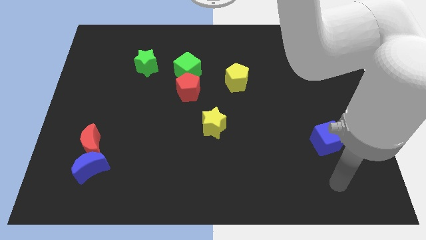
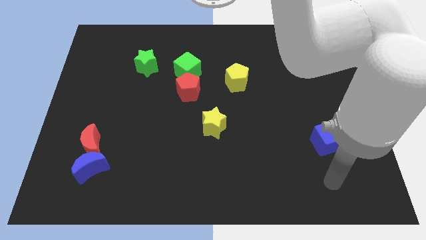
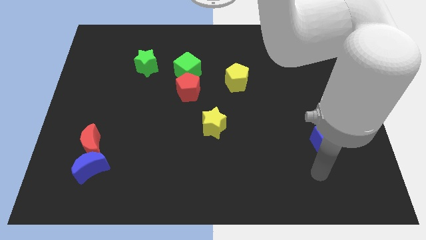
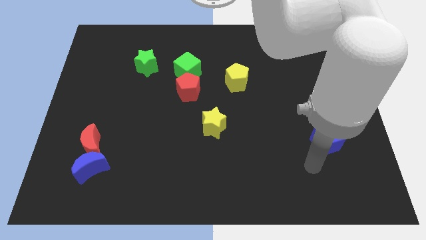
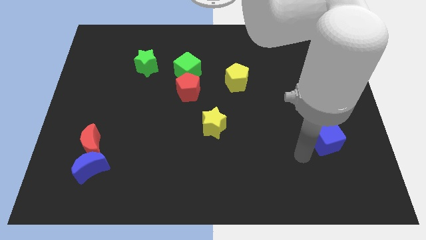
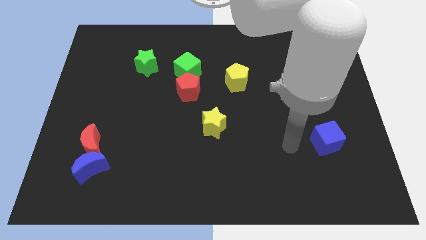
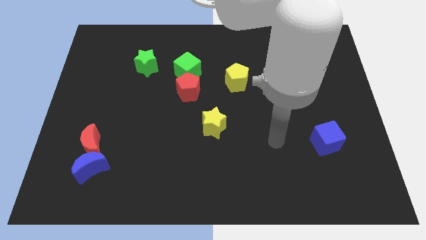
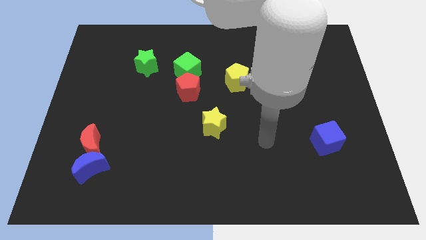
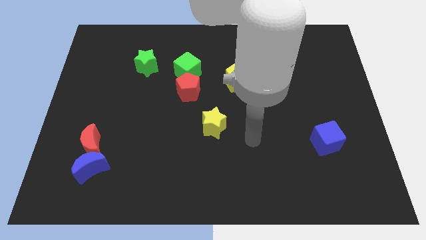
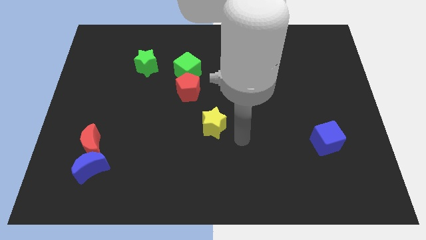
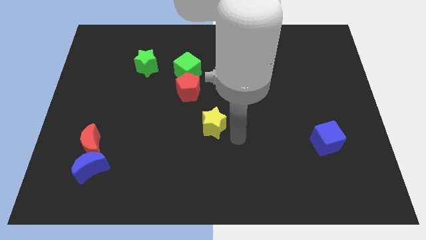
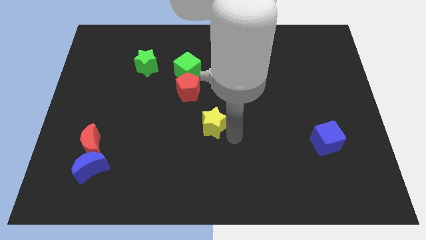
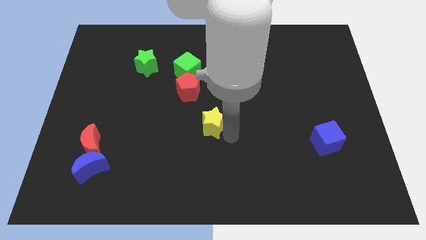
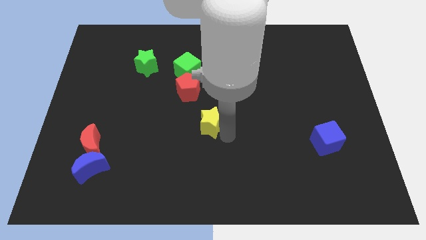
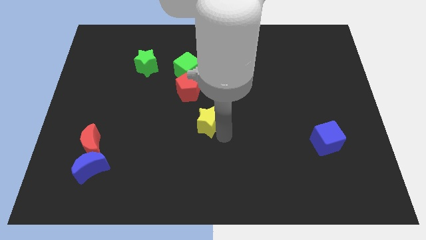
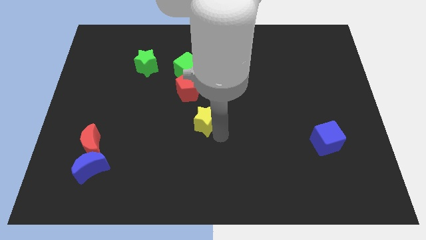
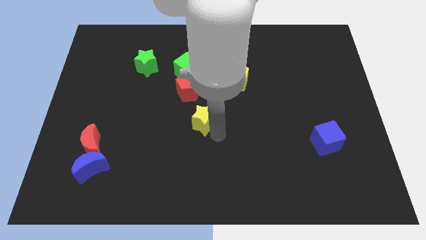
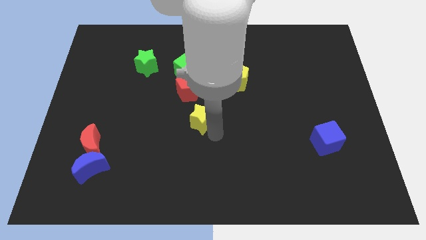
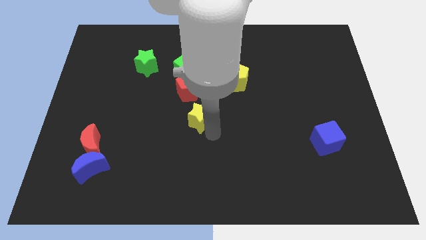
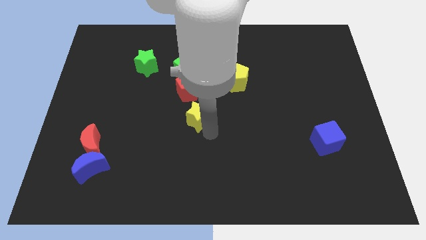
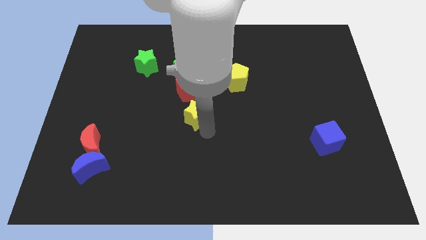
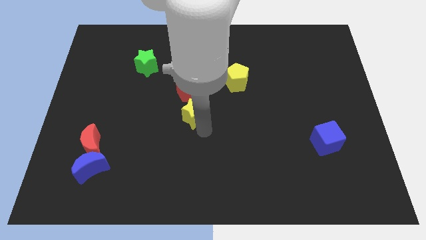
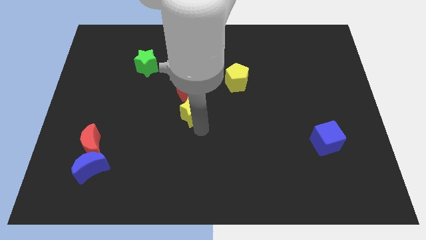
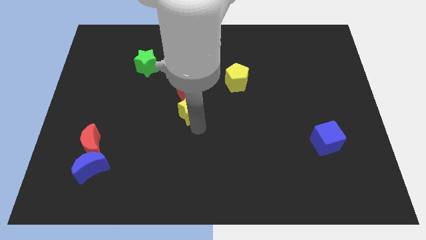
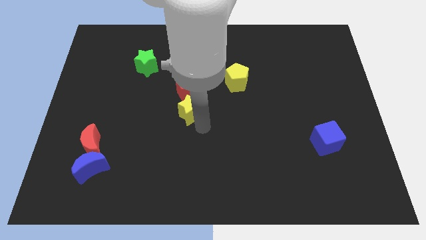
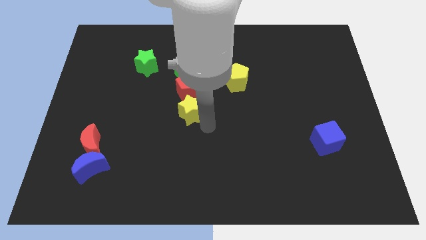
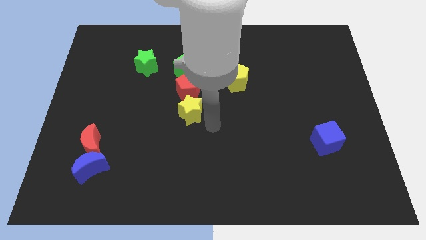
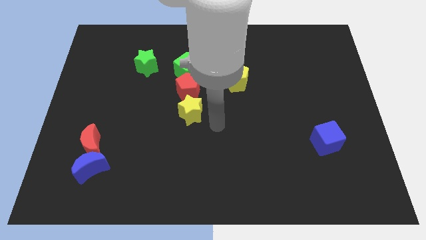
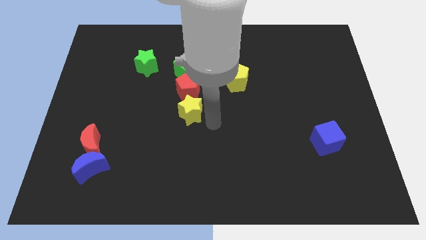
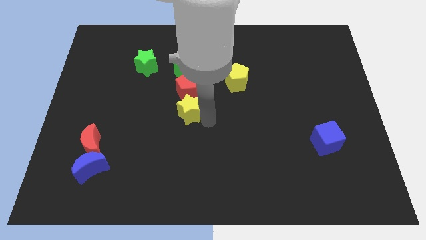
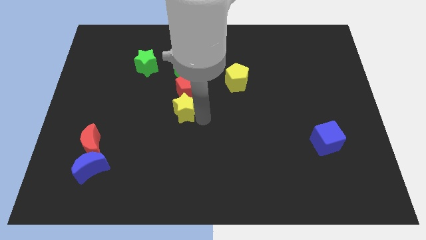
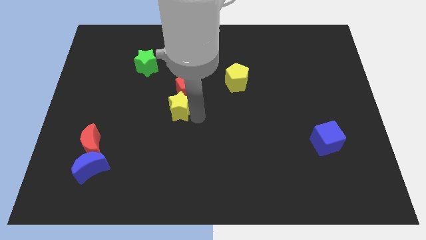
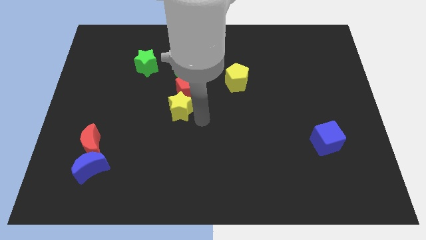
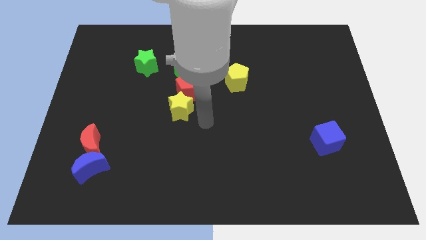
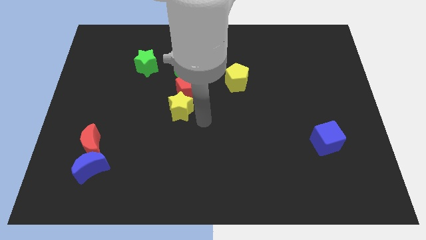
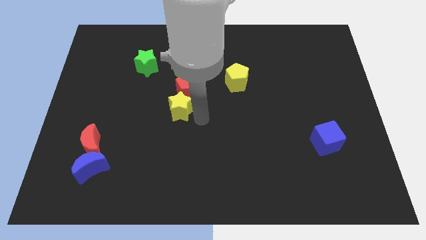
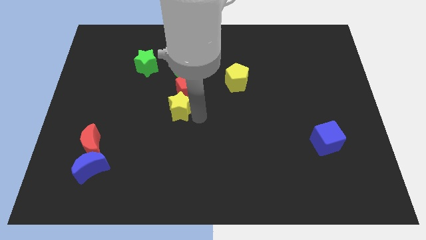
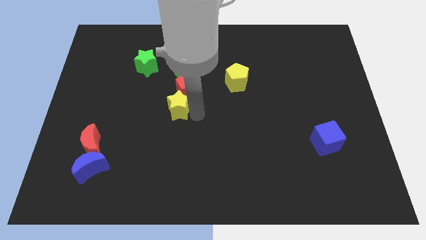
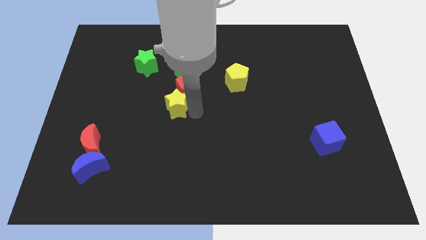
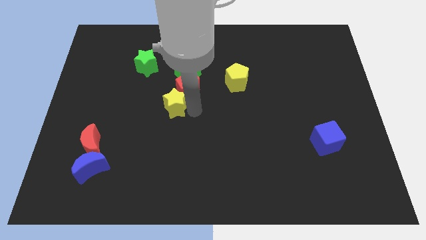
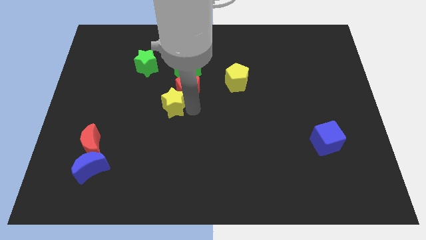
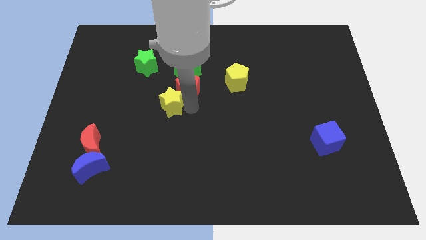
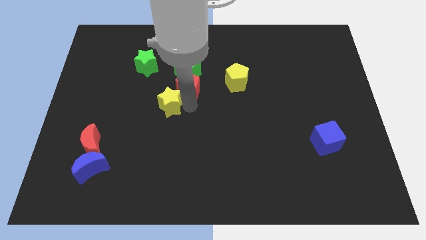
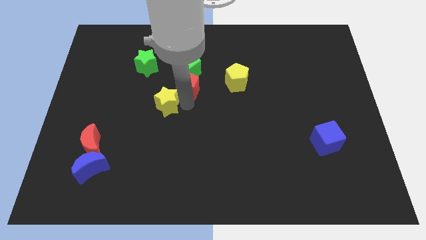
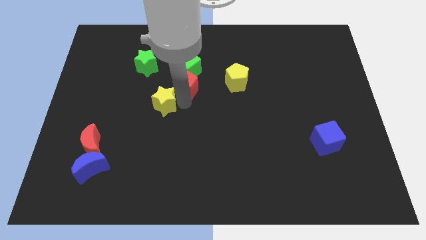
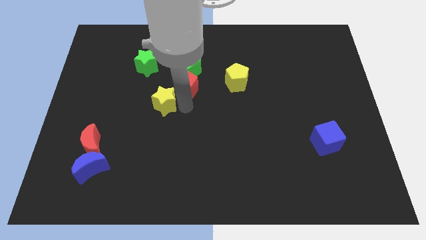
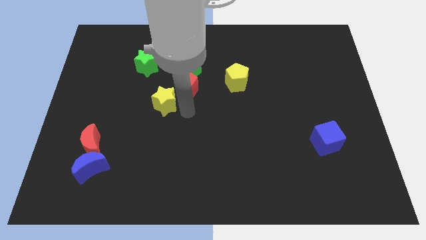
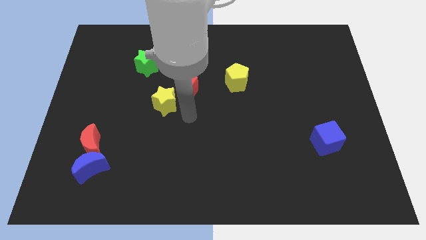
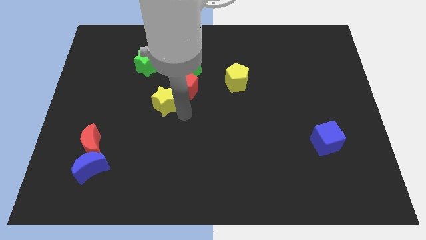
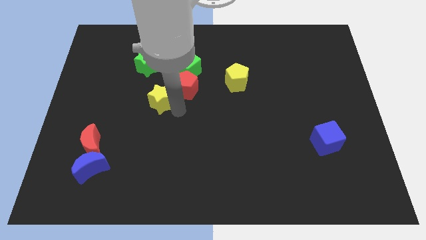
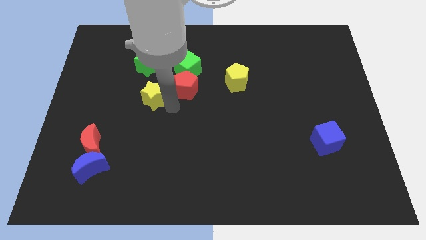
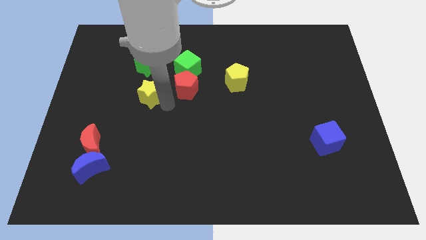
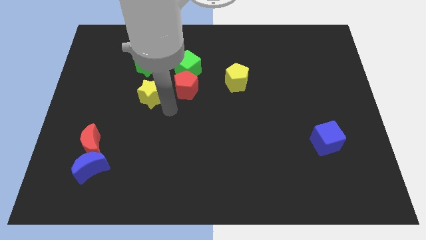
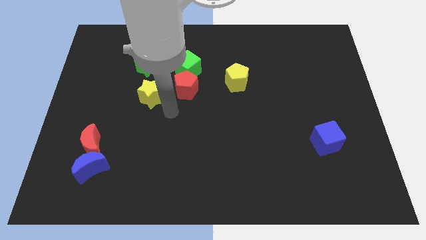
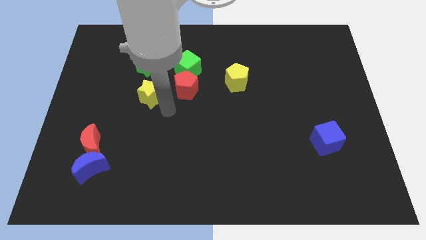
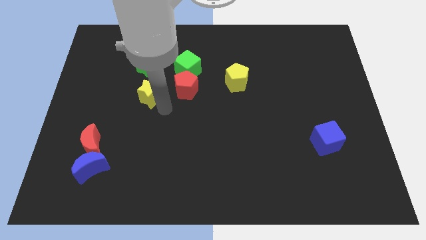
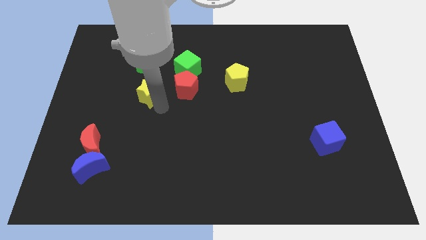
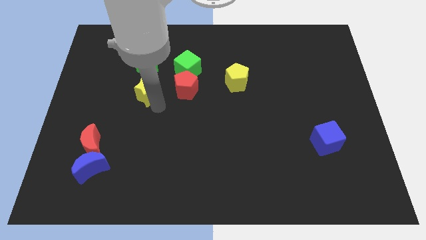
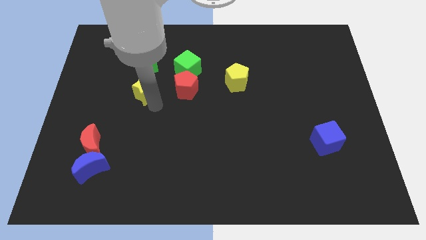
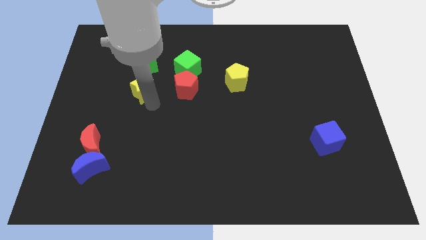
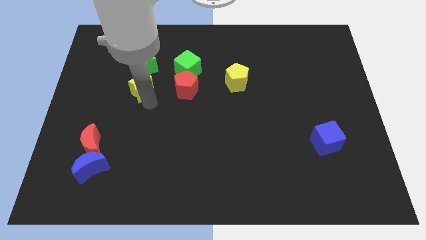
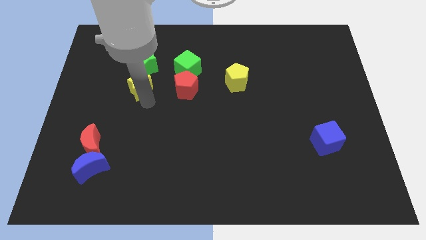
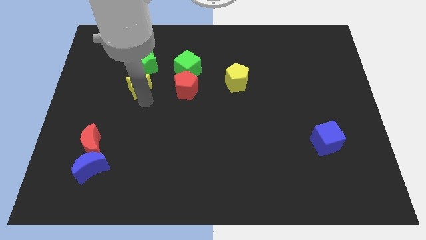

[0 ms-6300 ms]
slide the yellow star diagonally up and left

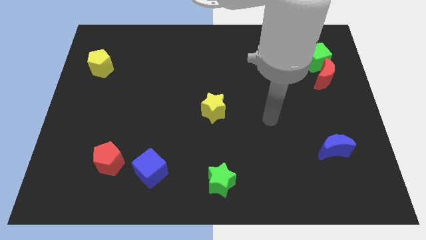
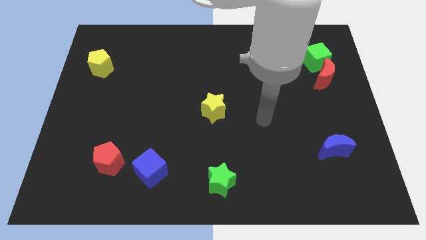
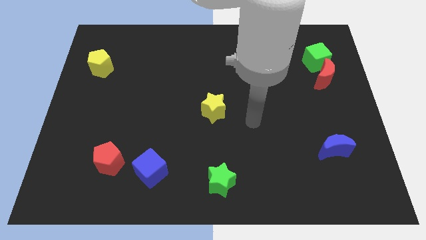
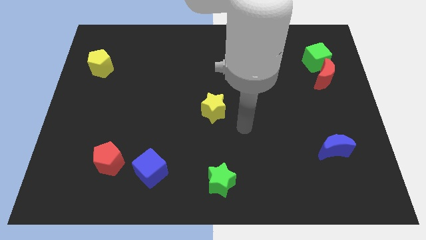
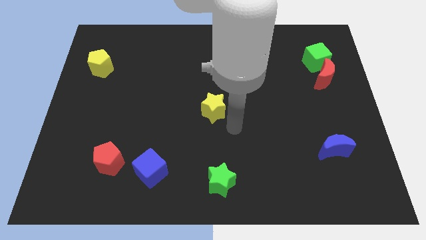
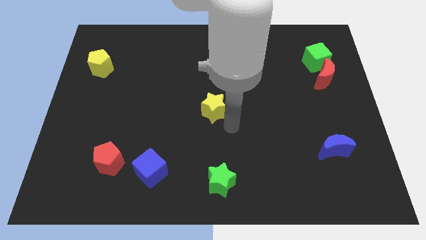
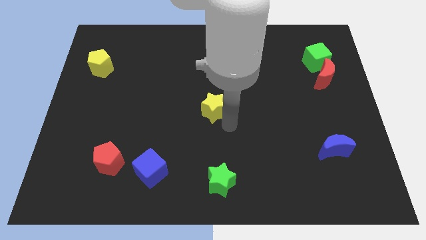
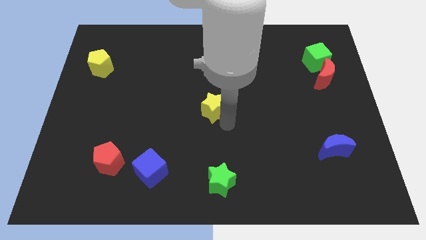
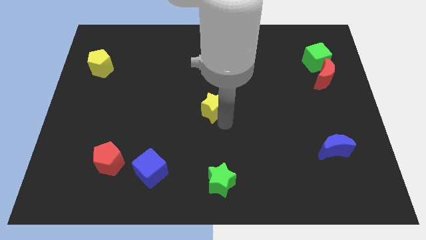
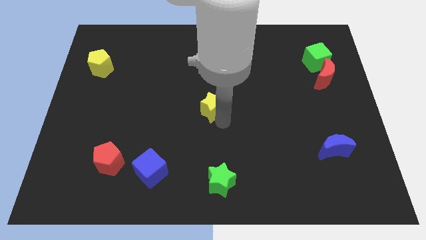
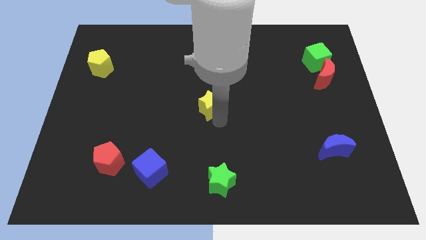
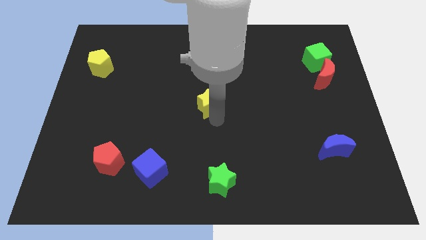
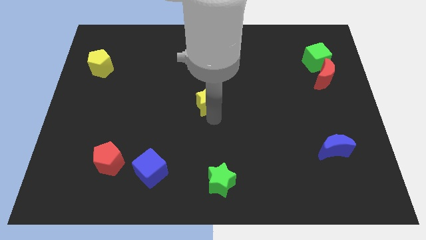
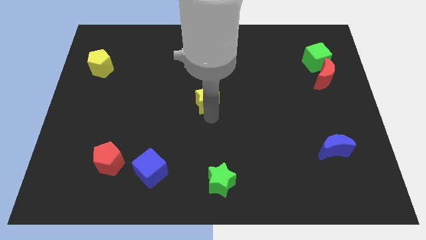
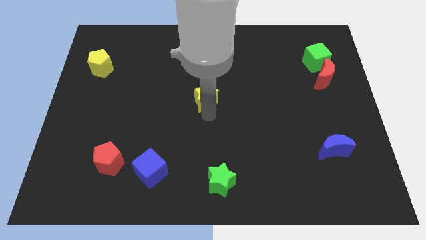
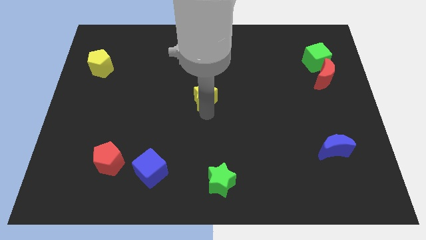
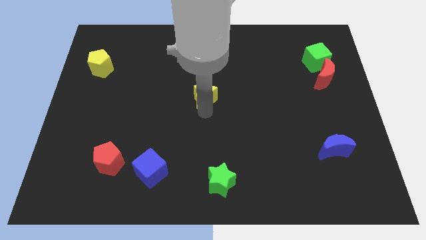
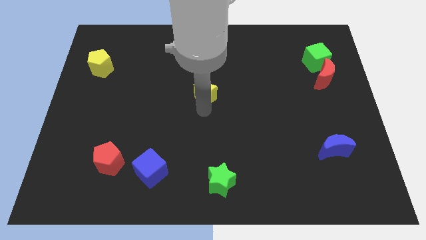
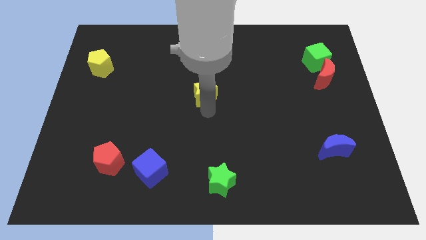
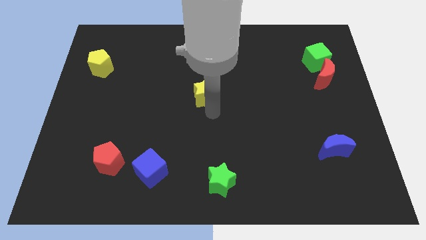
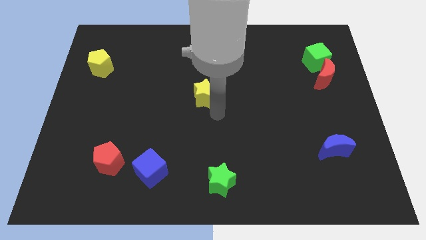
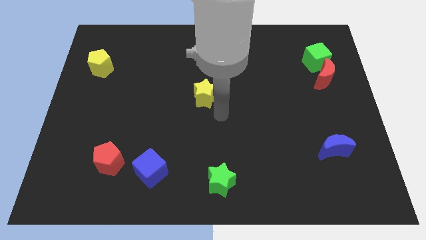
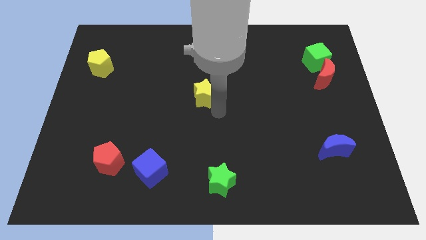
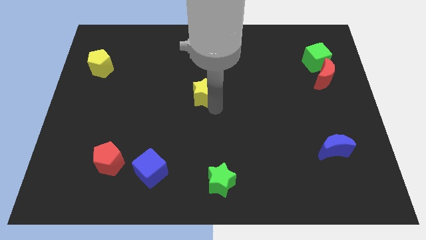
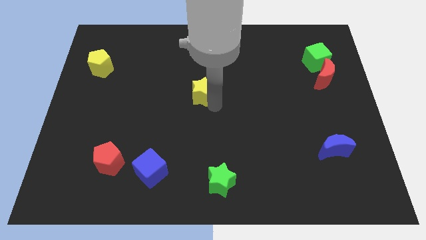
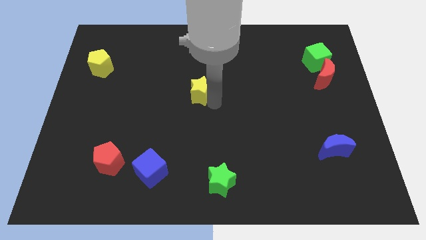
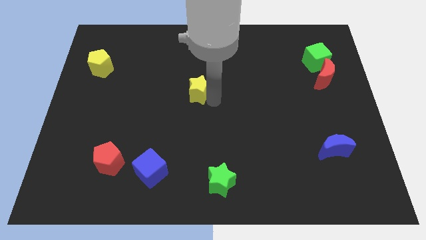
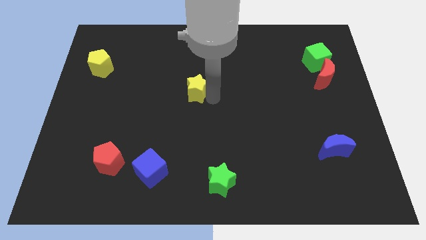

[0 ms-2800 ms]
slide the yellow star a little bit up and then left
